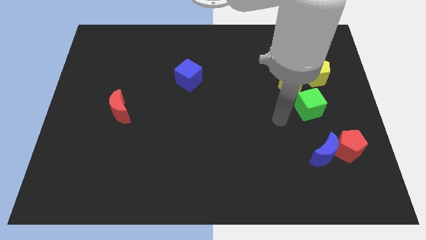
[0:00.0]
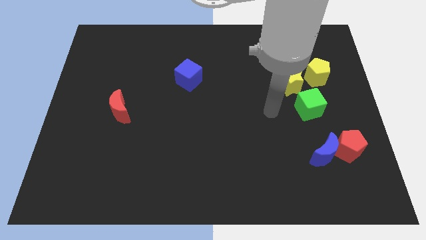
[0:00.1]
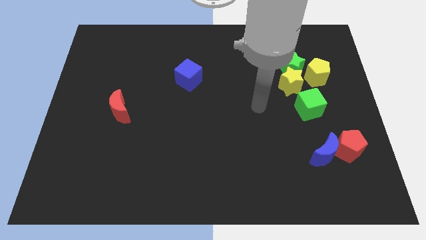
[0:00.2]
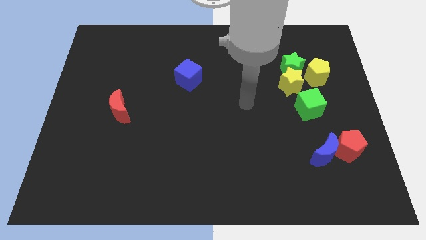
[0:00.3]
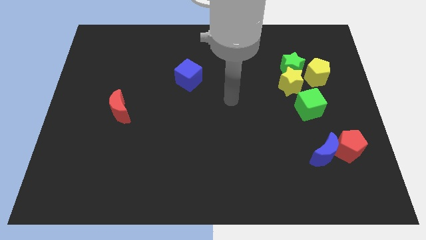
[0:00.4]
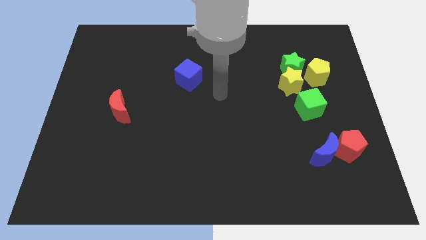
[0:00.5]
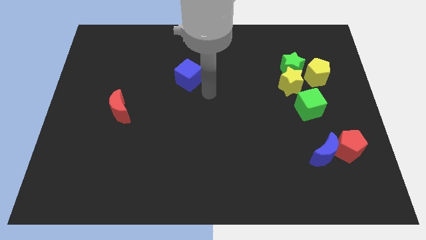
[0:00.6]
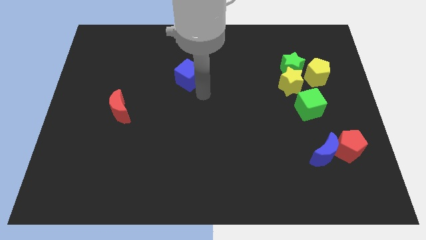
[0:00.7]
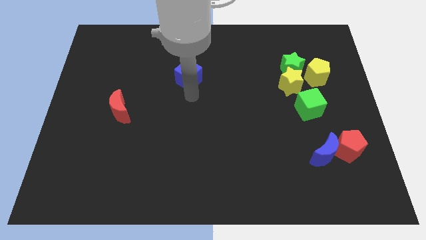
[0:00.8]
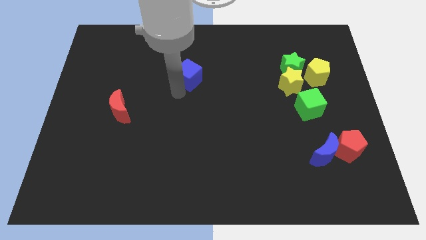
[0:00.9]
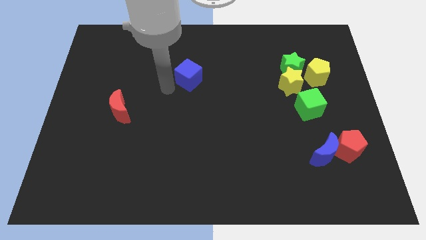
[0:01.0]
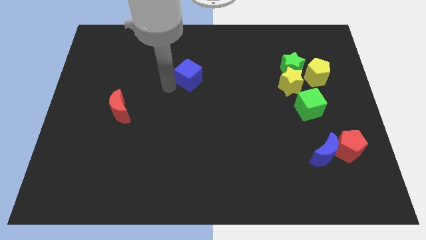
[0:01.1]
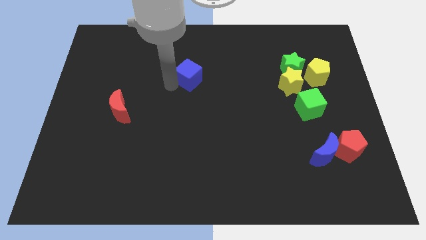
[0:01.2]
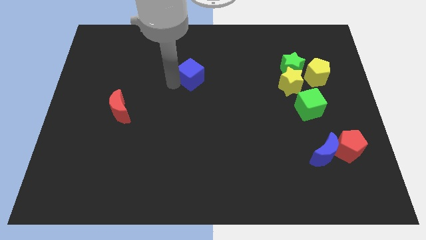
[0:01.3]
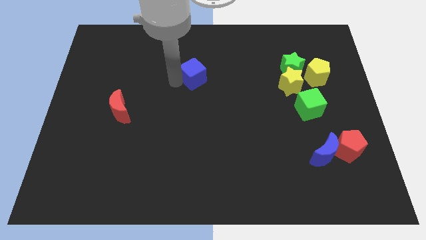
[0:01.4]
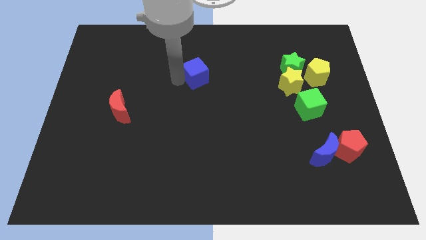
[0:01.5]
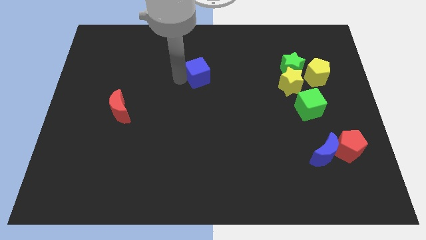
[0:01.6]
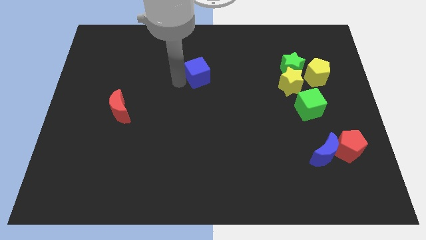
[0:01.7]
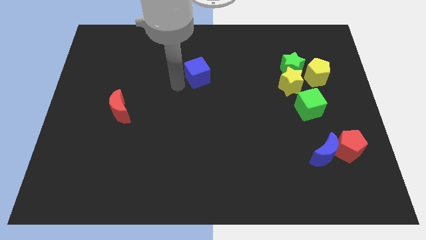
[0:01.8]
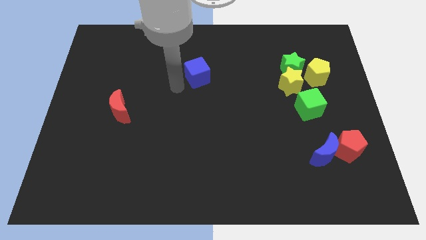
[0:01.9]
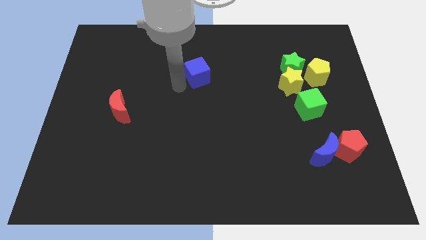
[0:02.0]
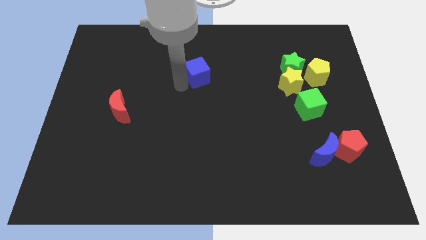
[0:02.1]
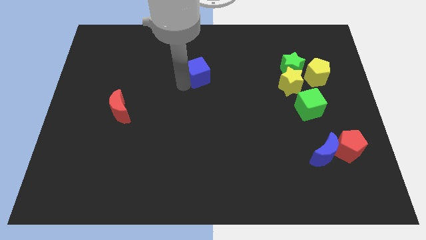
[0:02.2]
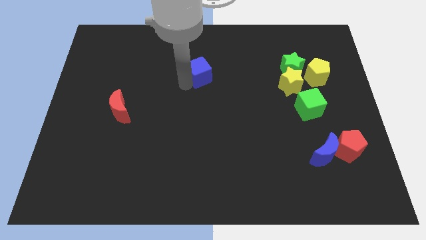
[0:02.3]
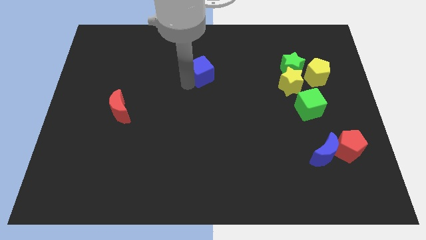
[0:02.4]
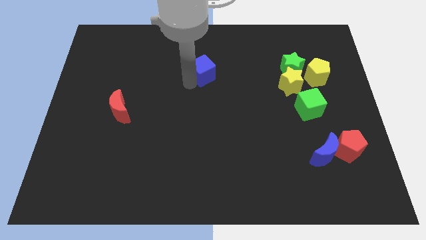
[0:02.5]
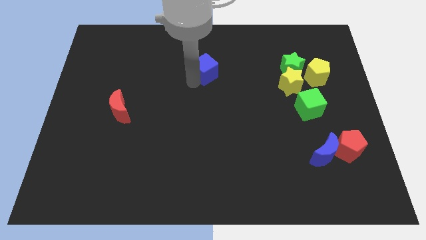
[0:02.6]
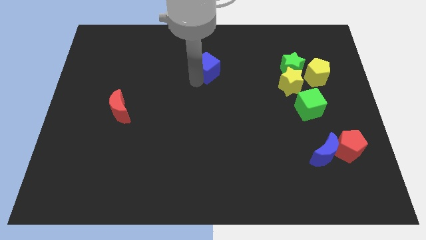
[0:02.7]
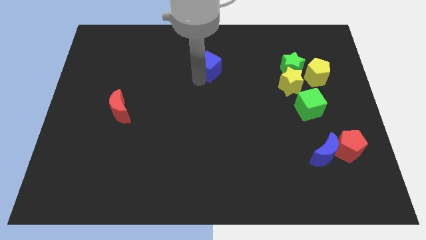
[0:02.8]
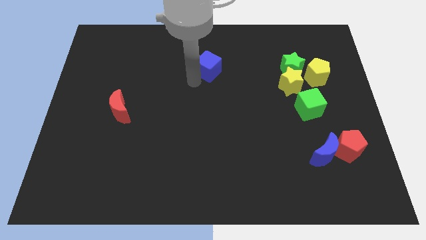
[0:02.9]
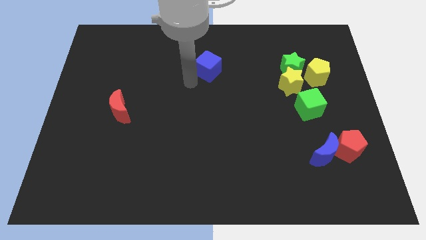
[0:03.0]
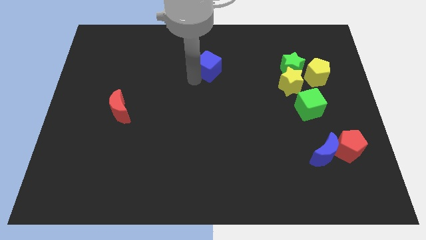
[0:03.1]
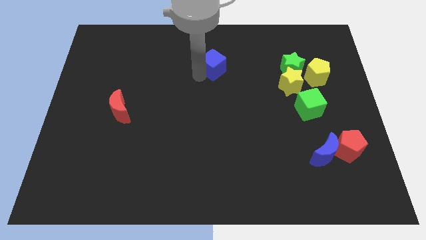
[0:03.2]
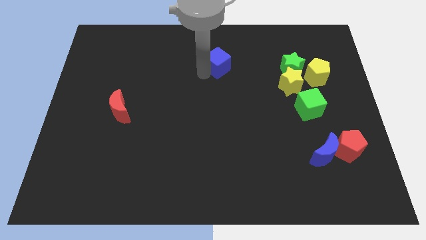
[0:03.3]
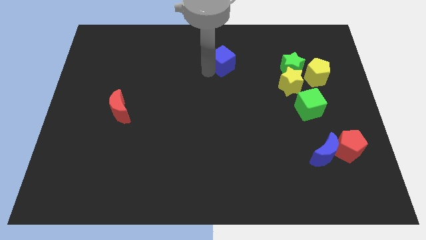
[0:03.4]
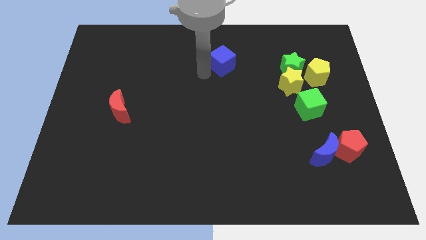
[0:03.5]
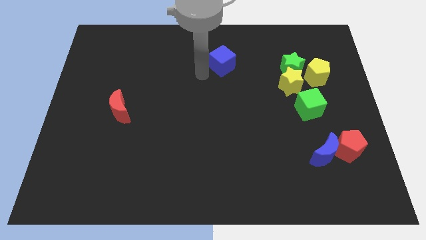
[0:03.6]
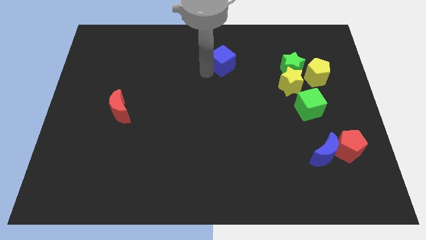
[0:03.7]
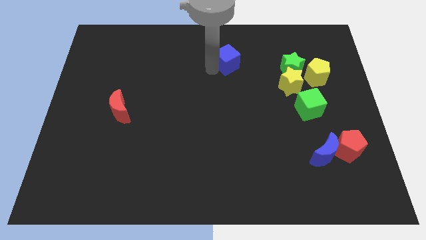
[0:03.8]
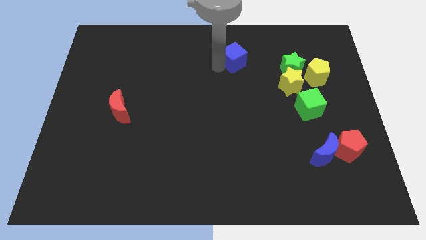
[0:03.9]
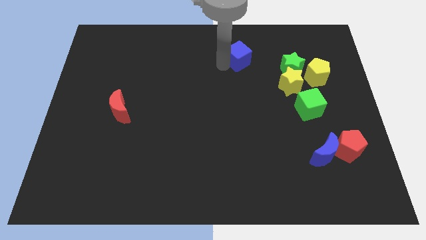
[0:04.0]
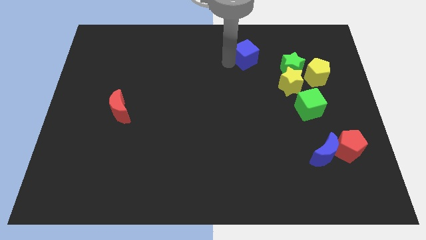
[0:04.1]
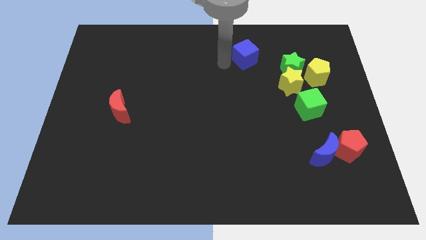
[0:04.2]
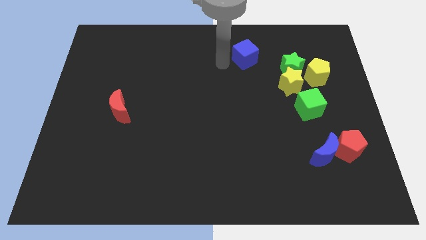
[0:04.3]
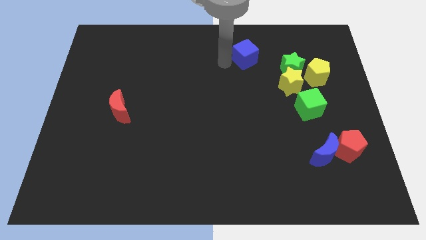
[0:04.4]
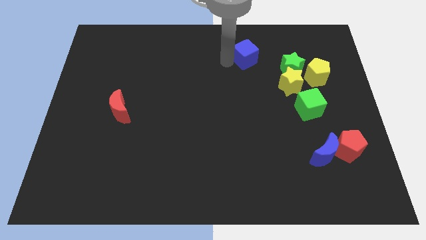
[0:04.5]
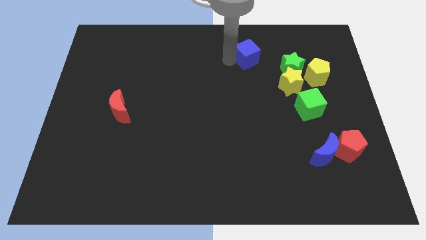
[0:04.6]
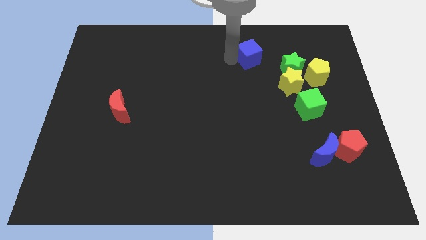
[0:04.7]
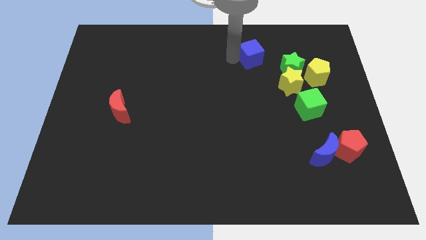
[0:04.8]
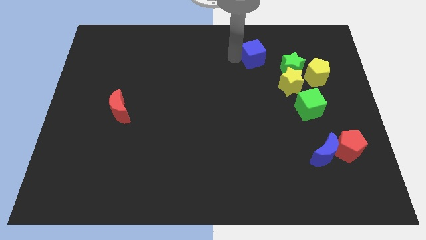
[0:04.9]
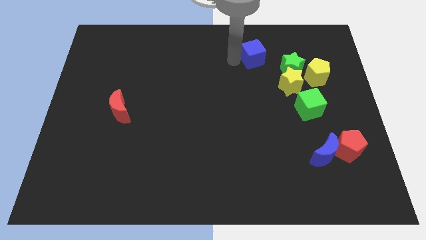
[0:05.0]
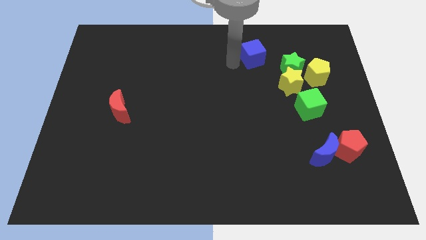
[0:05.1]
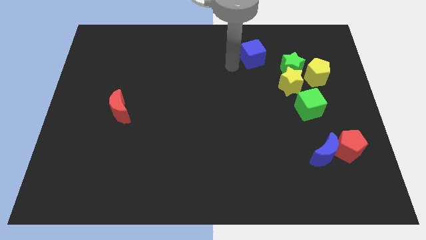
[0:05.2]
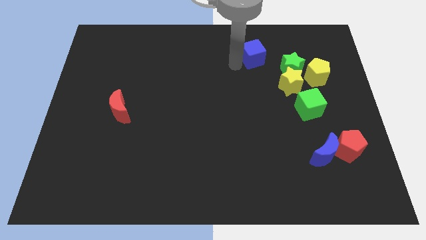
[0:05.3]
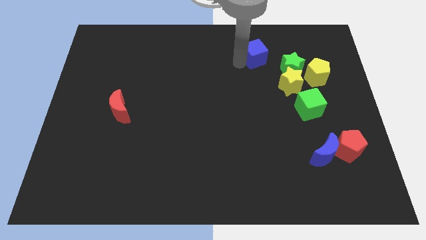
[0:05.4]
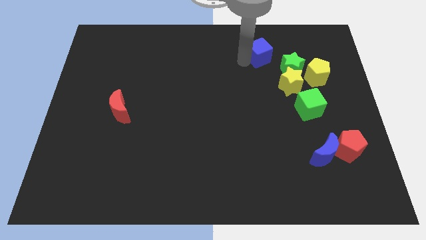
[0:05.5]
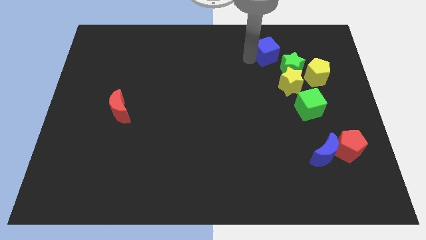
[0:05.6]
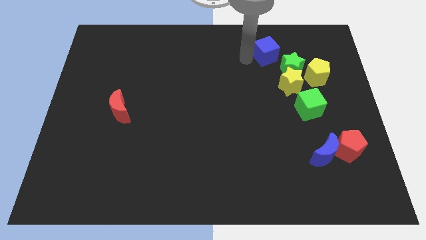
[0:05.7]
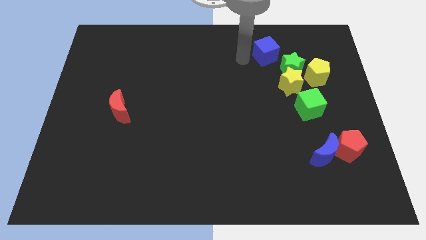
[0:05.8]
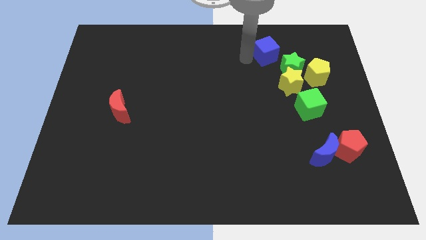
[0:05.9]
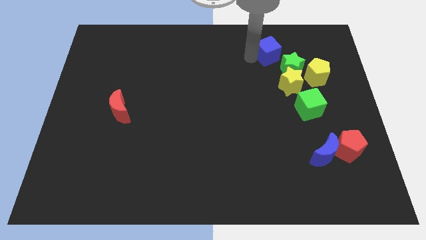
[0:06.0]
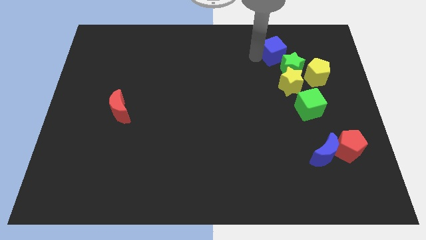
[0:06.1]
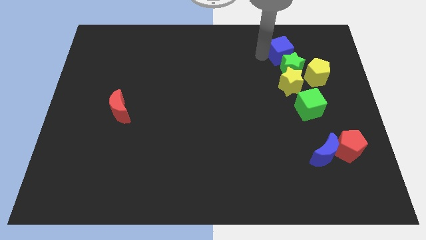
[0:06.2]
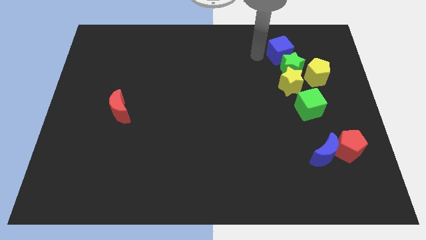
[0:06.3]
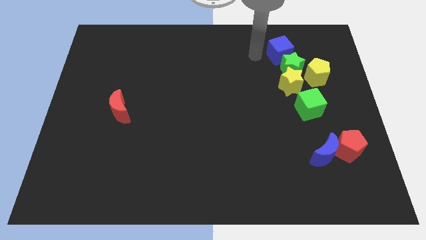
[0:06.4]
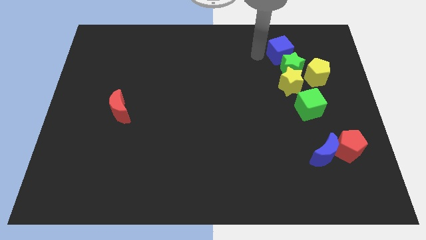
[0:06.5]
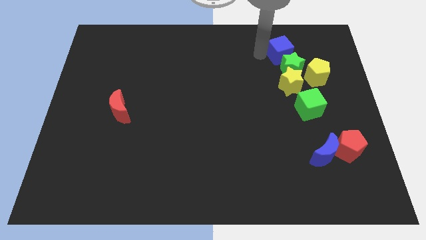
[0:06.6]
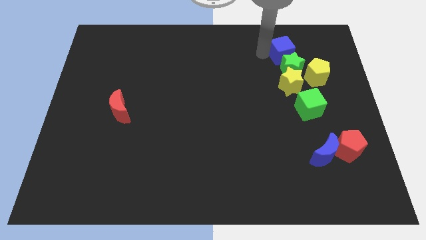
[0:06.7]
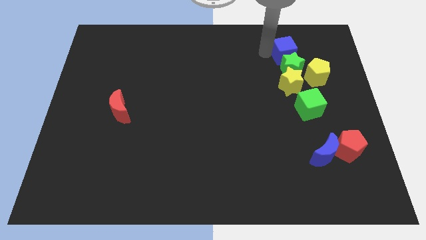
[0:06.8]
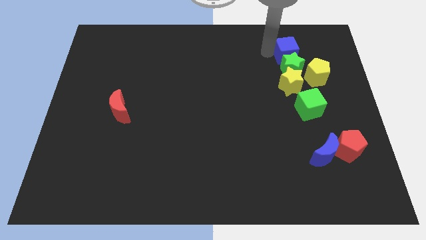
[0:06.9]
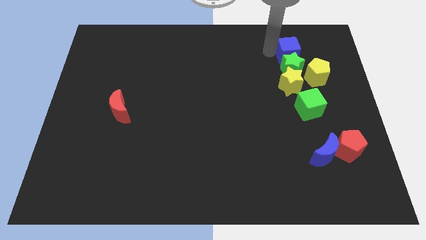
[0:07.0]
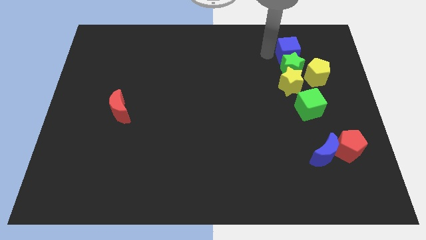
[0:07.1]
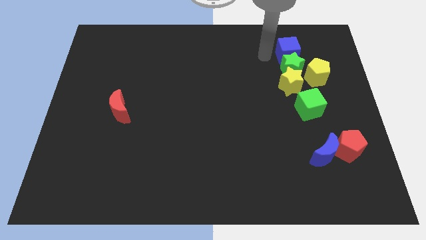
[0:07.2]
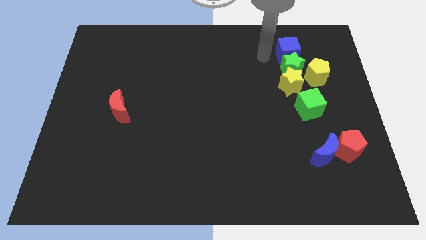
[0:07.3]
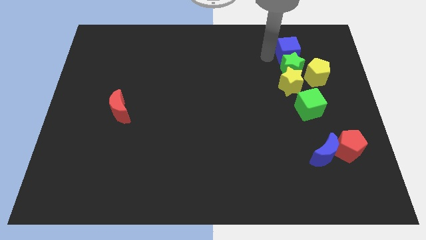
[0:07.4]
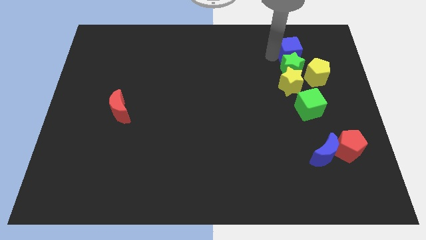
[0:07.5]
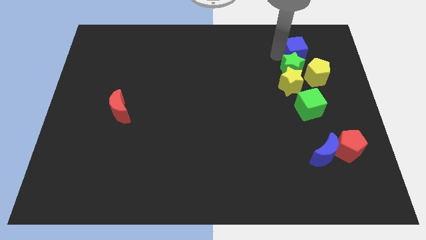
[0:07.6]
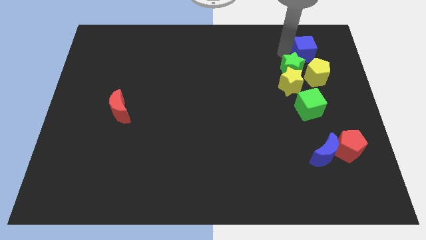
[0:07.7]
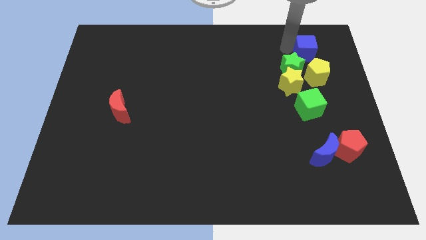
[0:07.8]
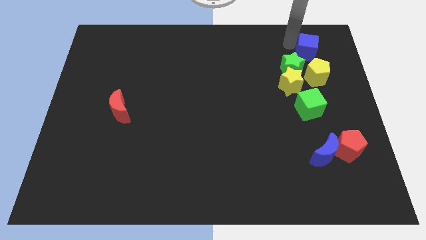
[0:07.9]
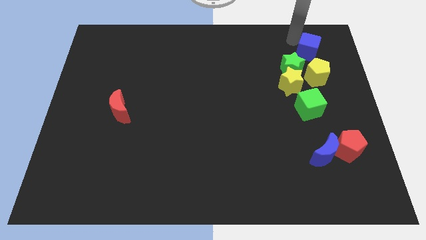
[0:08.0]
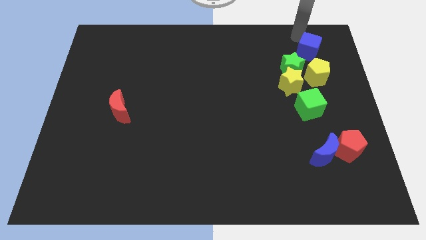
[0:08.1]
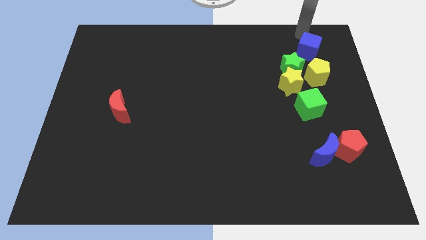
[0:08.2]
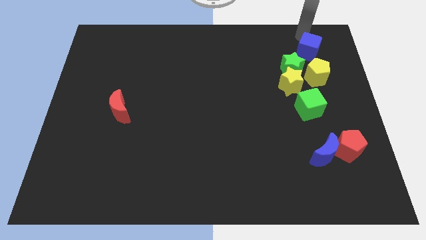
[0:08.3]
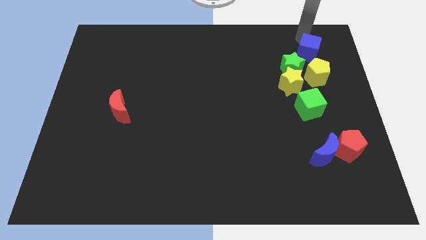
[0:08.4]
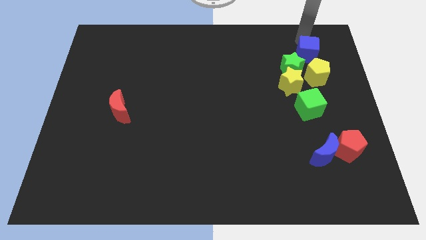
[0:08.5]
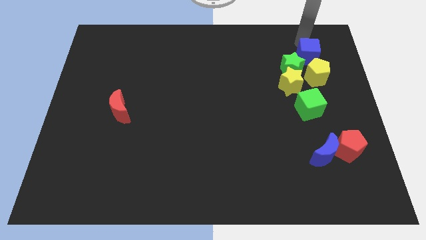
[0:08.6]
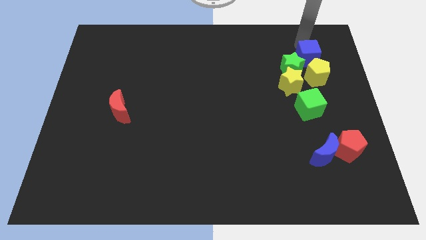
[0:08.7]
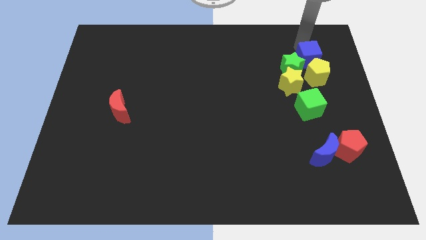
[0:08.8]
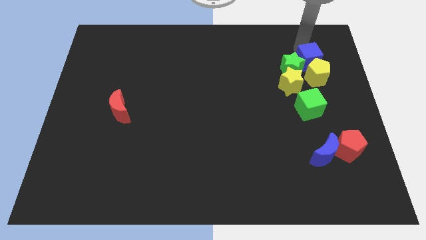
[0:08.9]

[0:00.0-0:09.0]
put the blue cube towards the yellow pentagon
